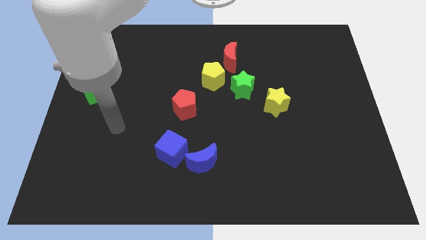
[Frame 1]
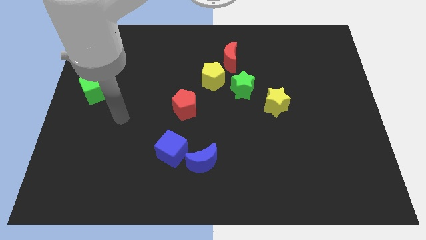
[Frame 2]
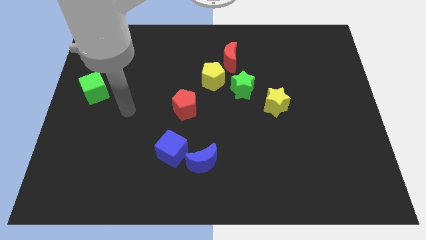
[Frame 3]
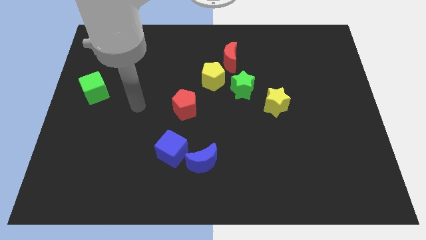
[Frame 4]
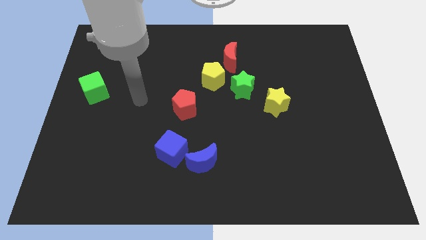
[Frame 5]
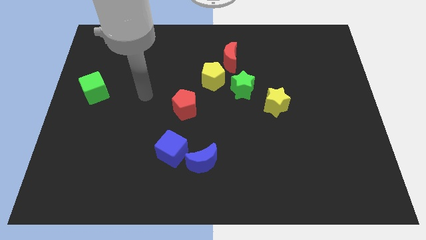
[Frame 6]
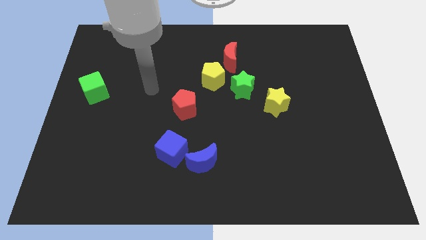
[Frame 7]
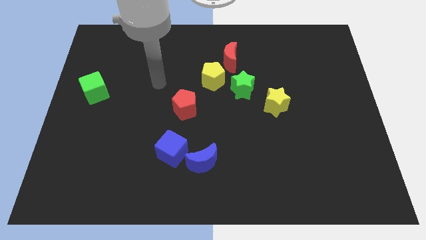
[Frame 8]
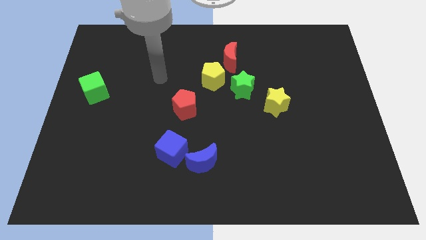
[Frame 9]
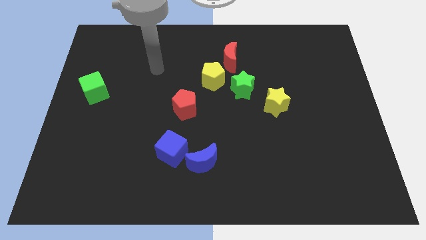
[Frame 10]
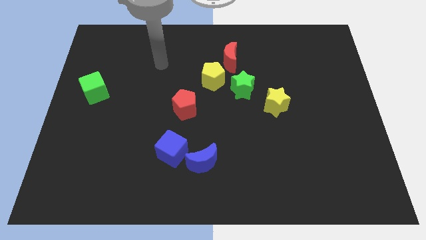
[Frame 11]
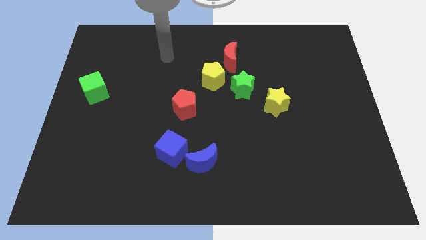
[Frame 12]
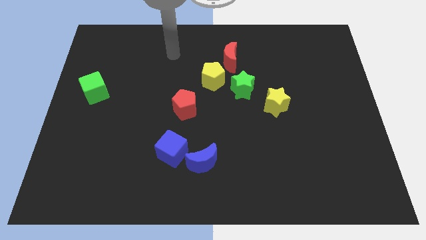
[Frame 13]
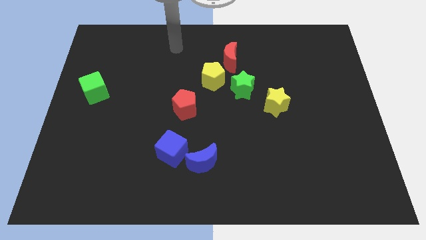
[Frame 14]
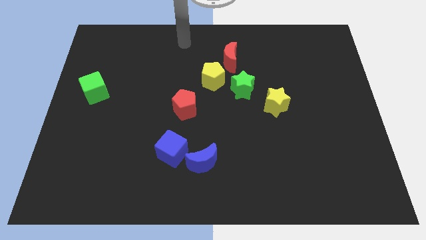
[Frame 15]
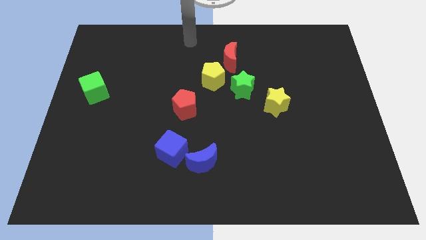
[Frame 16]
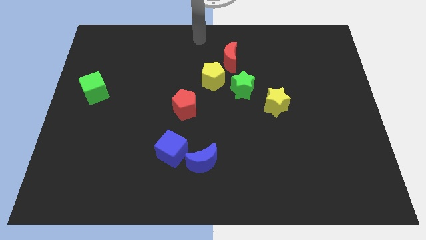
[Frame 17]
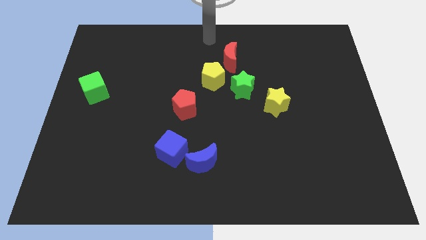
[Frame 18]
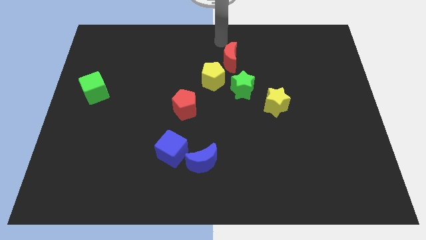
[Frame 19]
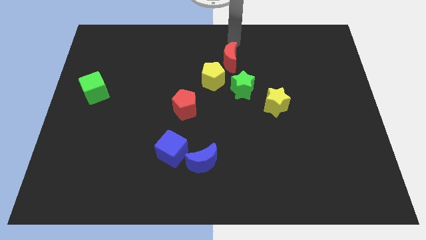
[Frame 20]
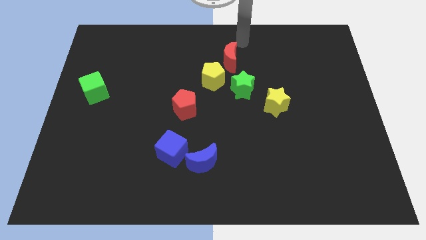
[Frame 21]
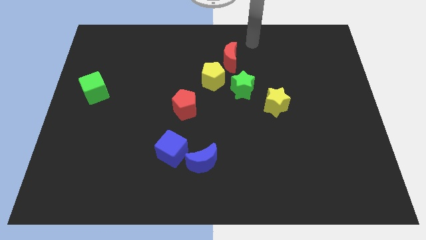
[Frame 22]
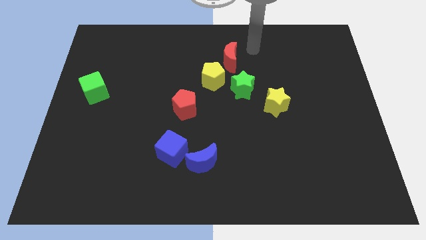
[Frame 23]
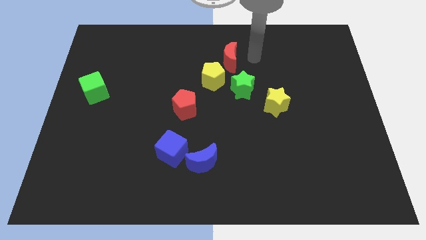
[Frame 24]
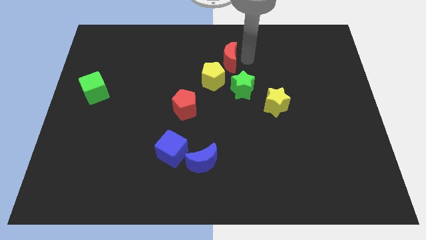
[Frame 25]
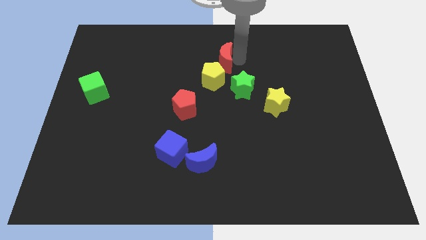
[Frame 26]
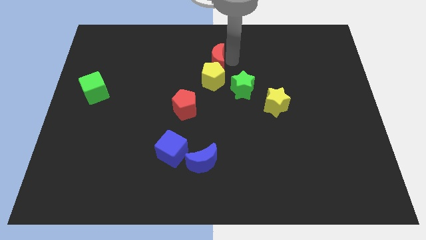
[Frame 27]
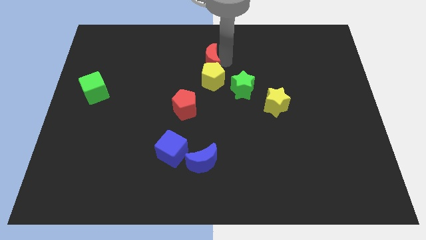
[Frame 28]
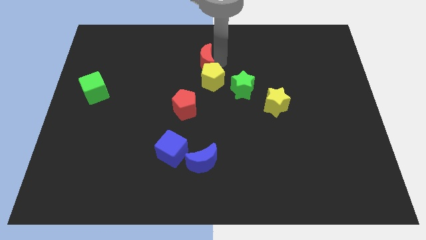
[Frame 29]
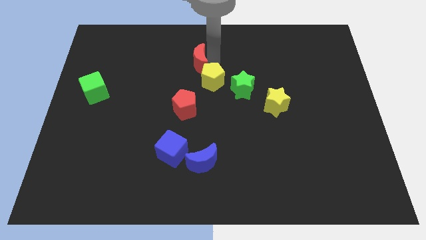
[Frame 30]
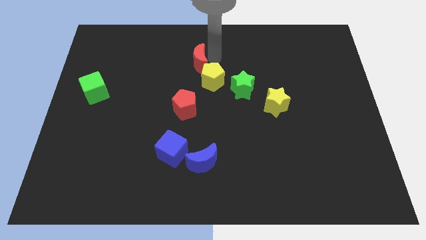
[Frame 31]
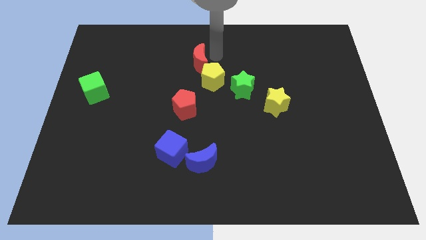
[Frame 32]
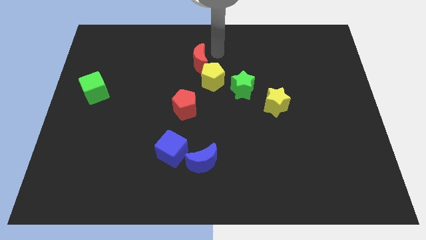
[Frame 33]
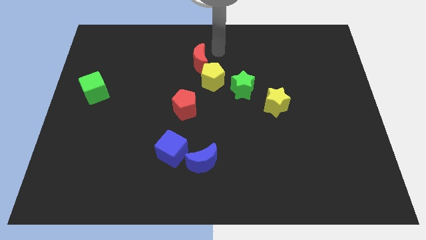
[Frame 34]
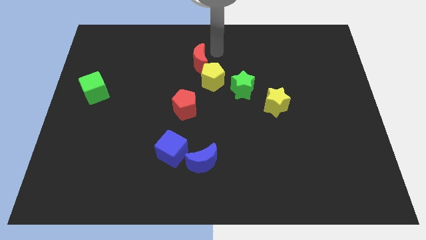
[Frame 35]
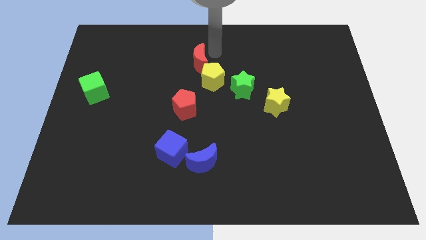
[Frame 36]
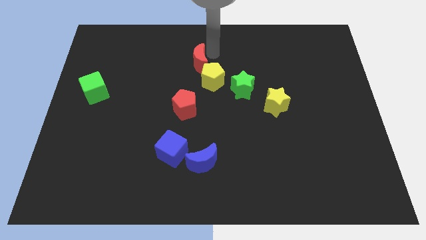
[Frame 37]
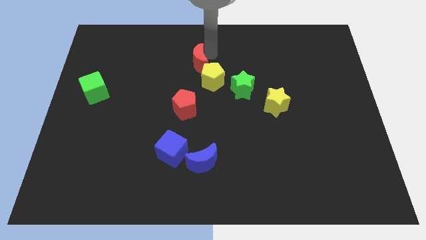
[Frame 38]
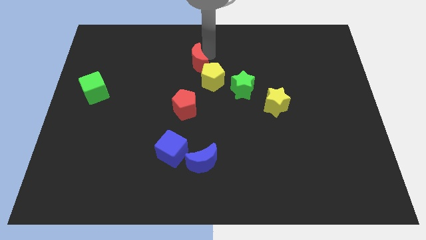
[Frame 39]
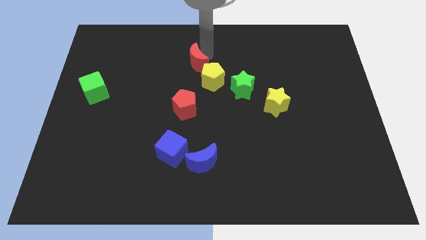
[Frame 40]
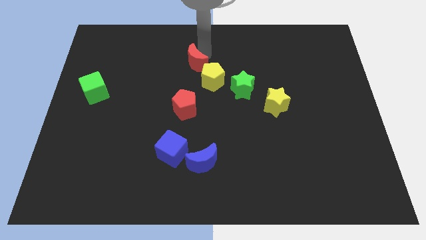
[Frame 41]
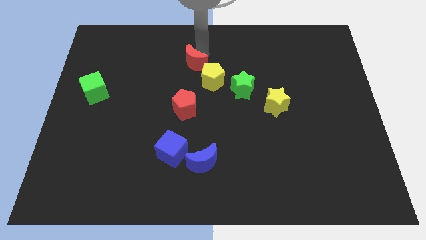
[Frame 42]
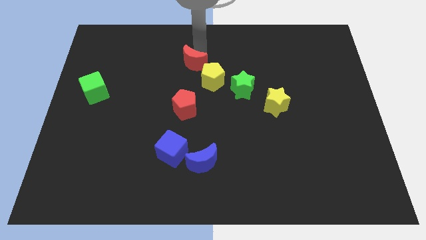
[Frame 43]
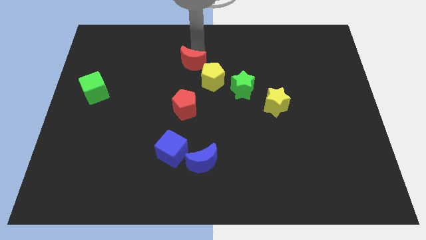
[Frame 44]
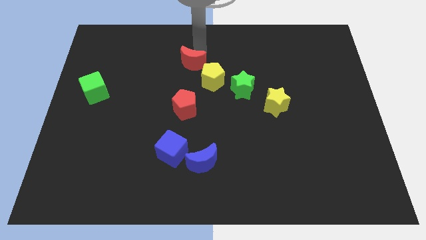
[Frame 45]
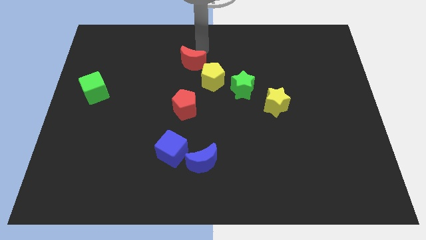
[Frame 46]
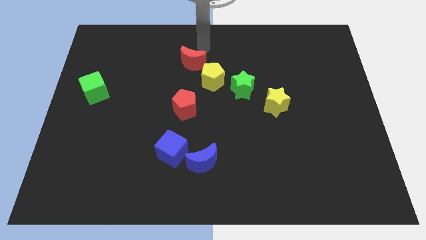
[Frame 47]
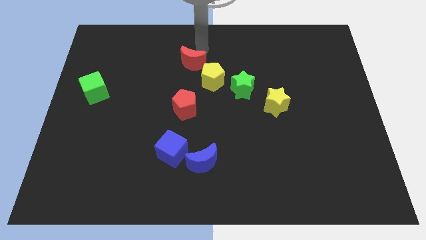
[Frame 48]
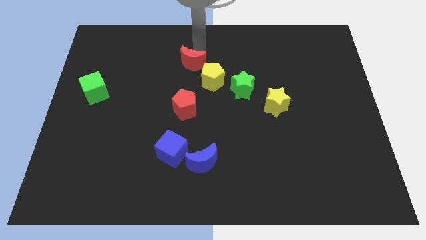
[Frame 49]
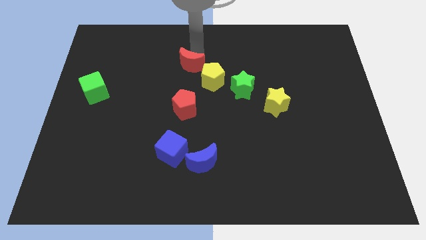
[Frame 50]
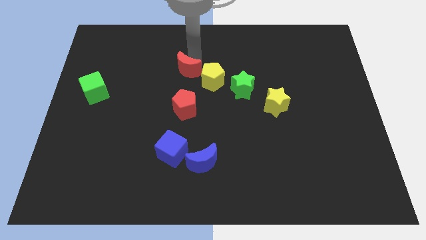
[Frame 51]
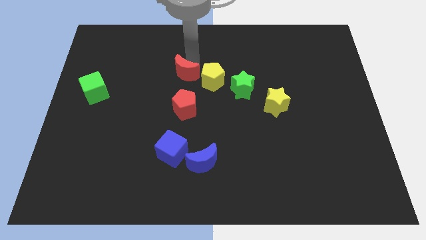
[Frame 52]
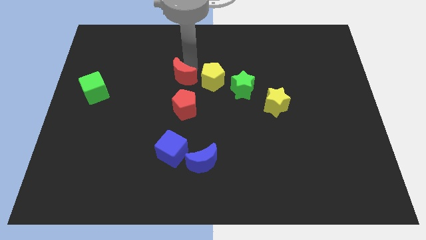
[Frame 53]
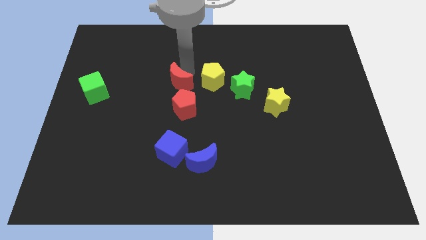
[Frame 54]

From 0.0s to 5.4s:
move the red moon diagonally up and to the left of the red pentagon
